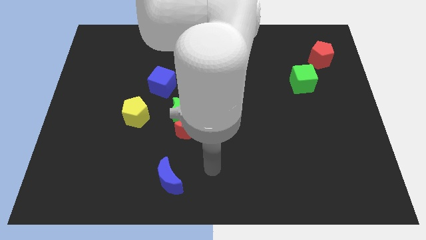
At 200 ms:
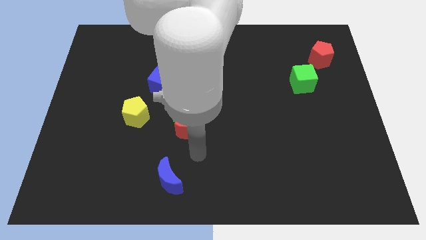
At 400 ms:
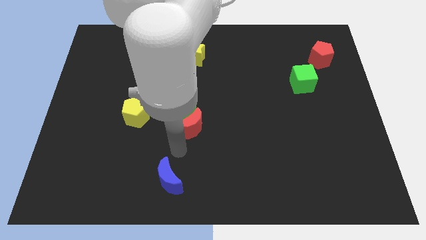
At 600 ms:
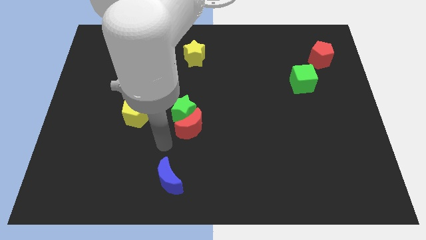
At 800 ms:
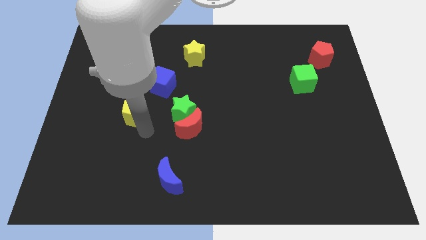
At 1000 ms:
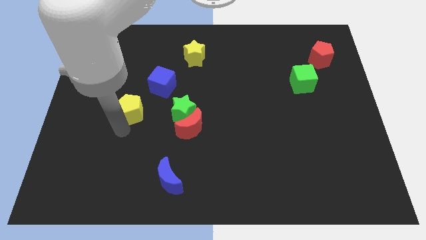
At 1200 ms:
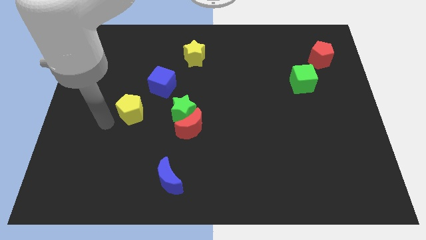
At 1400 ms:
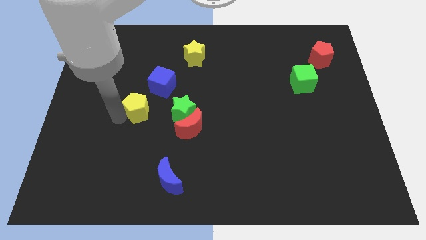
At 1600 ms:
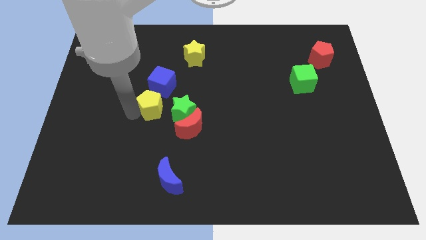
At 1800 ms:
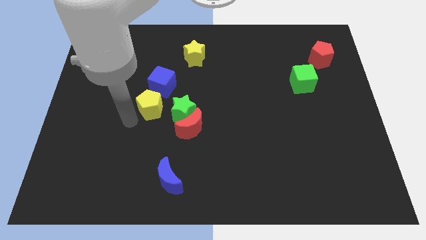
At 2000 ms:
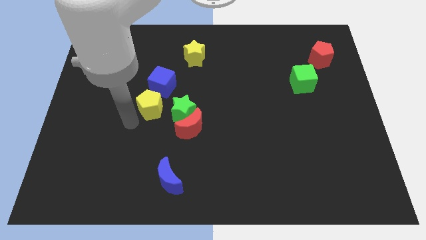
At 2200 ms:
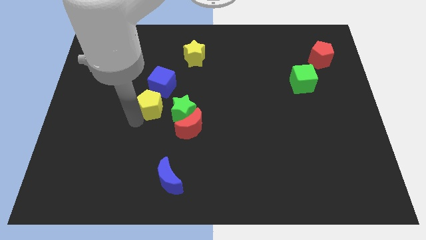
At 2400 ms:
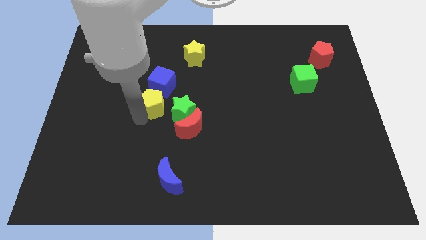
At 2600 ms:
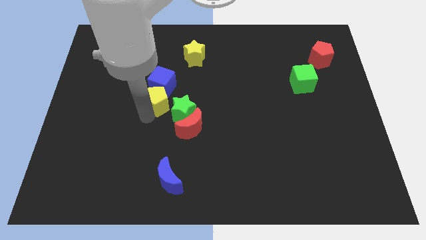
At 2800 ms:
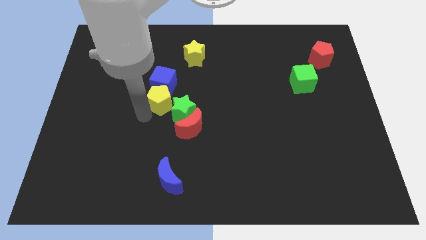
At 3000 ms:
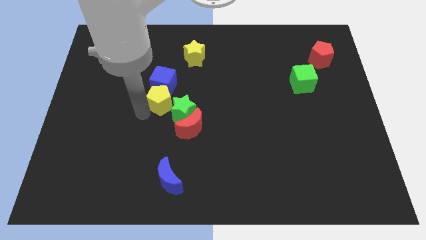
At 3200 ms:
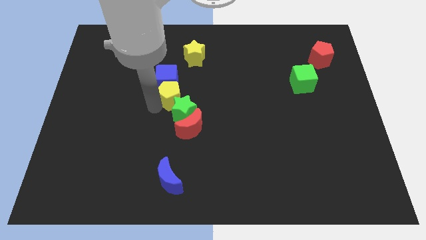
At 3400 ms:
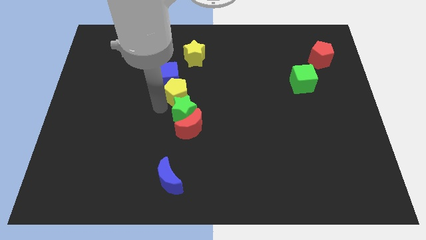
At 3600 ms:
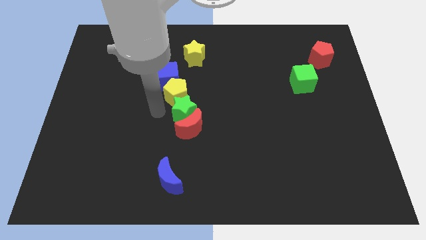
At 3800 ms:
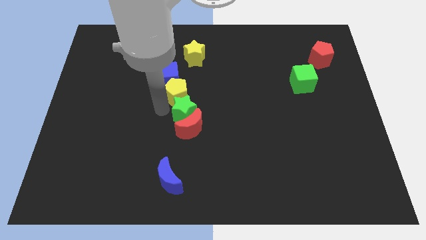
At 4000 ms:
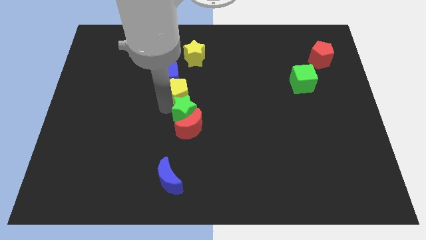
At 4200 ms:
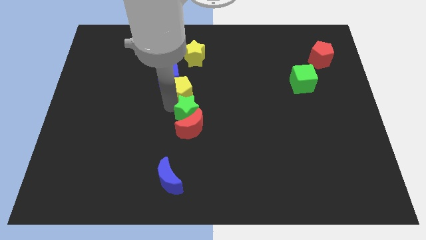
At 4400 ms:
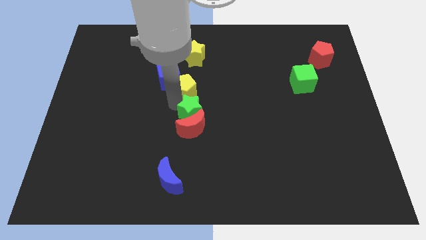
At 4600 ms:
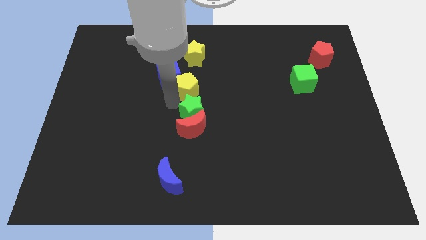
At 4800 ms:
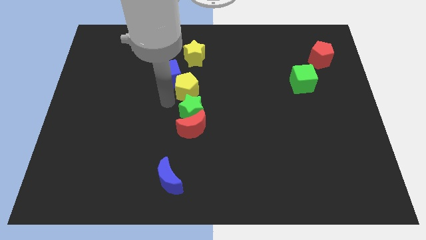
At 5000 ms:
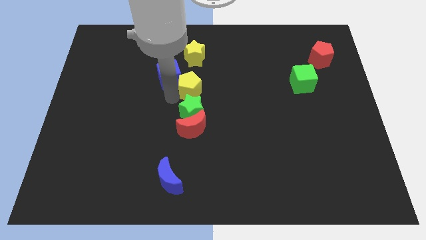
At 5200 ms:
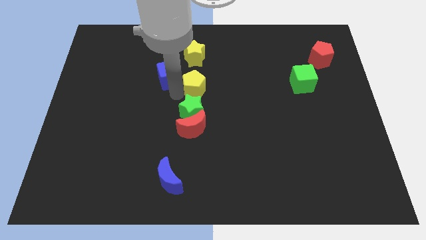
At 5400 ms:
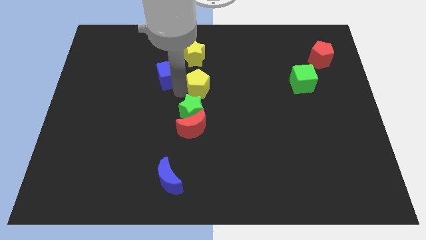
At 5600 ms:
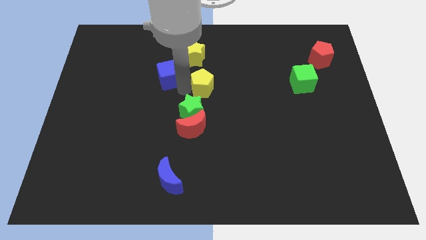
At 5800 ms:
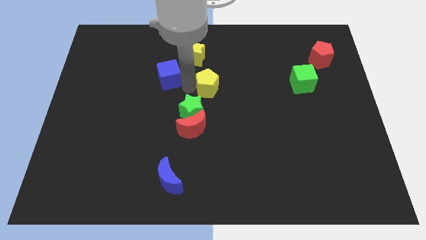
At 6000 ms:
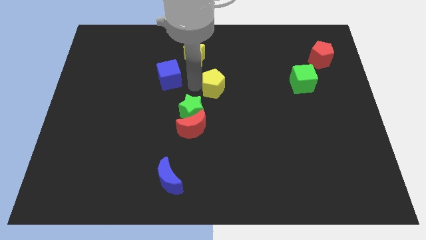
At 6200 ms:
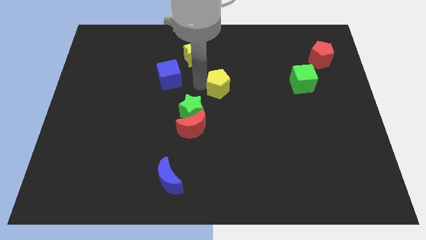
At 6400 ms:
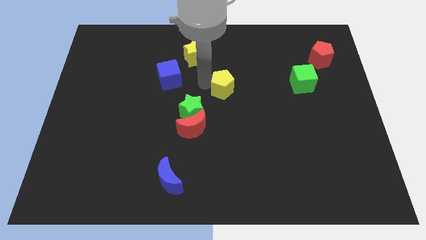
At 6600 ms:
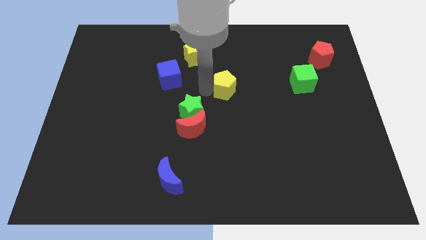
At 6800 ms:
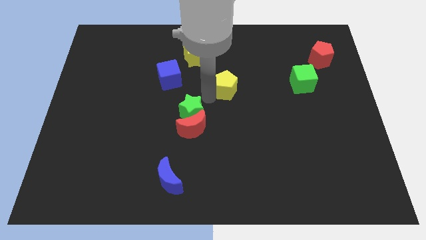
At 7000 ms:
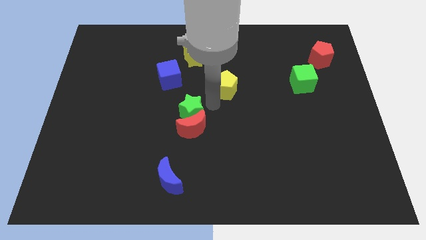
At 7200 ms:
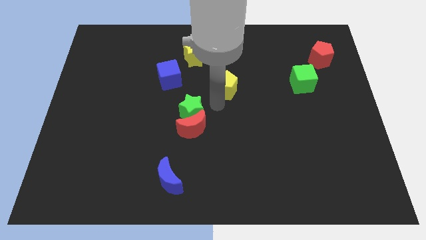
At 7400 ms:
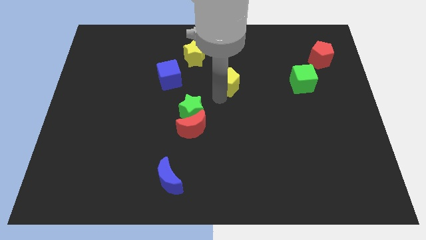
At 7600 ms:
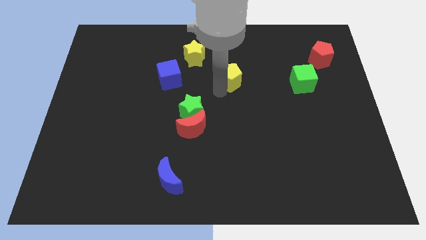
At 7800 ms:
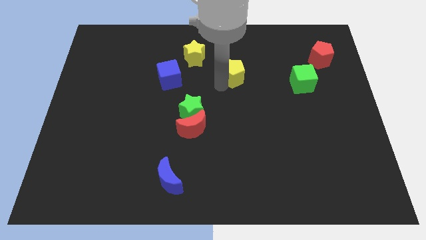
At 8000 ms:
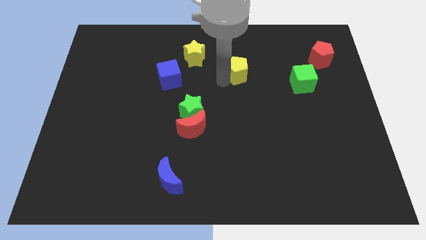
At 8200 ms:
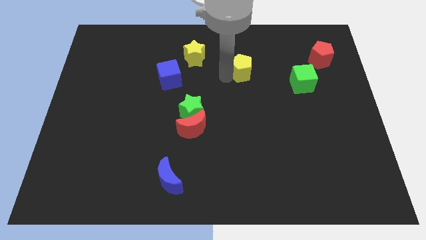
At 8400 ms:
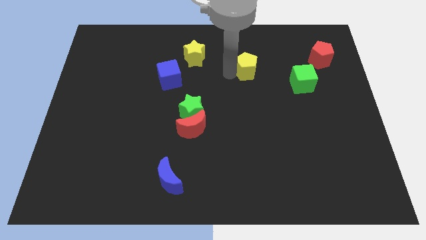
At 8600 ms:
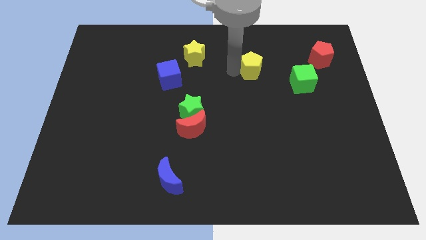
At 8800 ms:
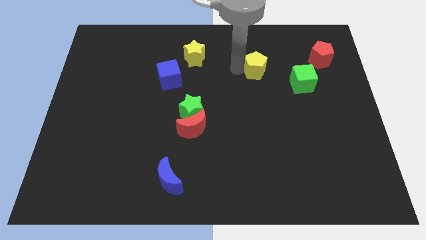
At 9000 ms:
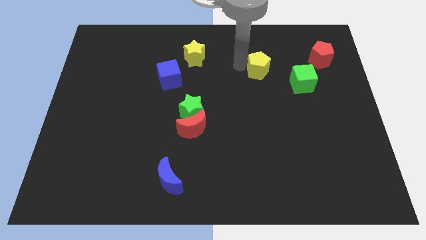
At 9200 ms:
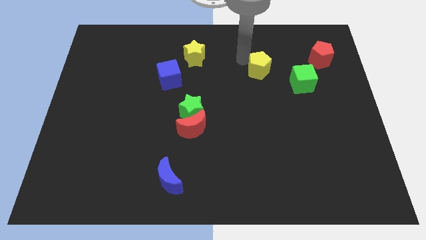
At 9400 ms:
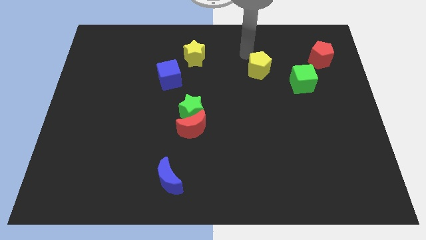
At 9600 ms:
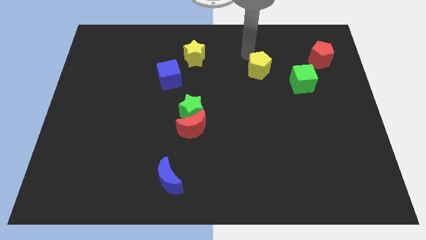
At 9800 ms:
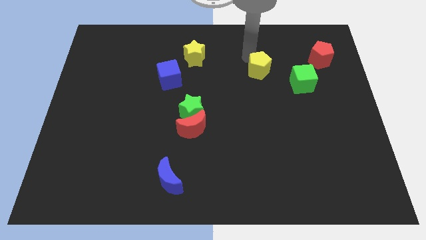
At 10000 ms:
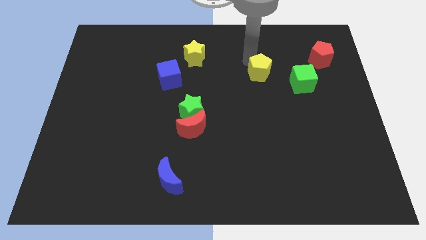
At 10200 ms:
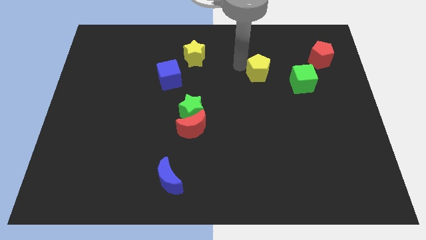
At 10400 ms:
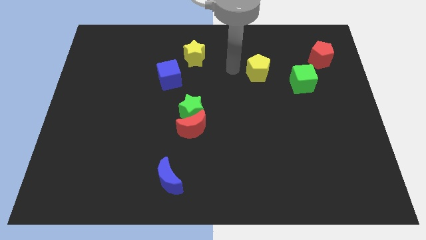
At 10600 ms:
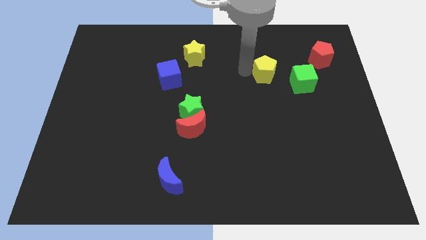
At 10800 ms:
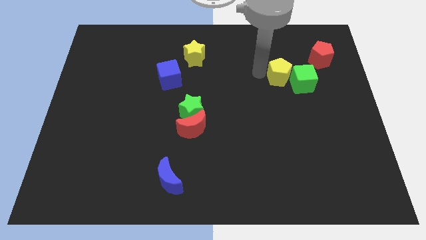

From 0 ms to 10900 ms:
push the yellow pentagon towards the green cube

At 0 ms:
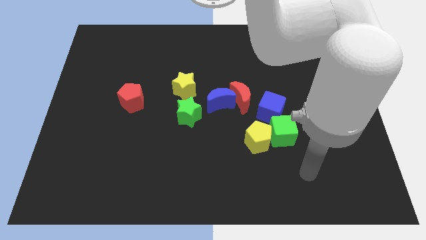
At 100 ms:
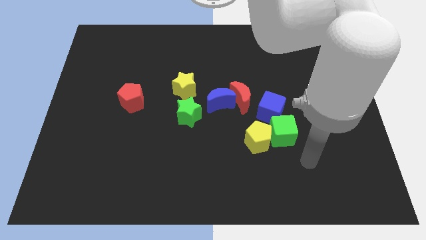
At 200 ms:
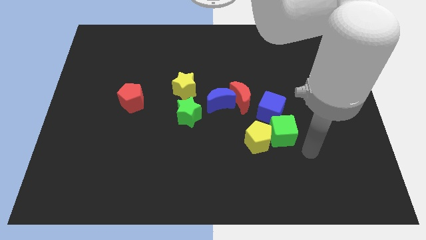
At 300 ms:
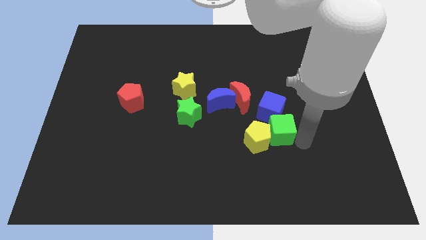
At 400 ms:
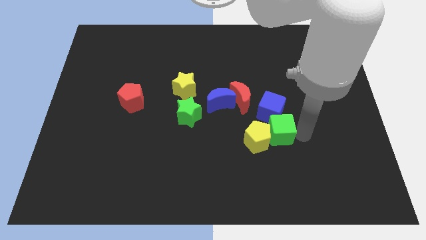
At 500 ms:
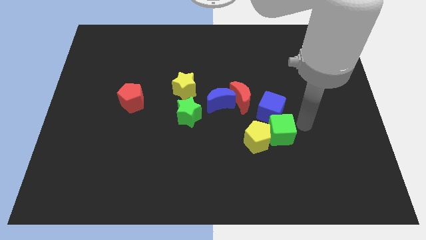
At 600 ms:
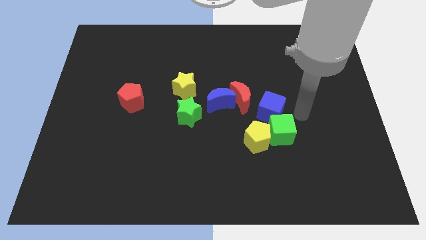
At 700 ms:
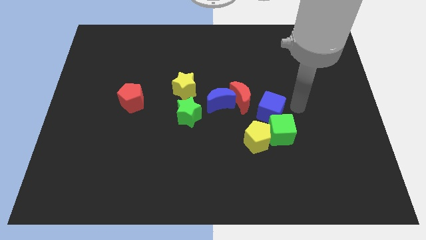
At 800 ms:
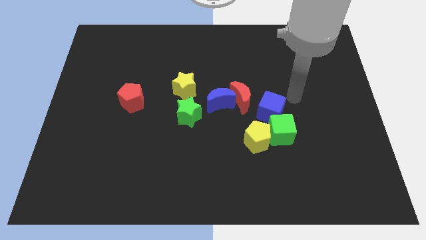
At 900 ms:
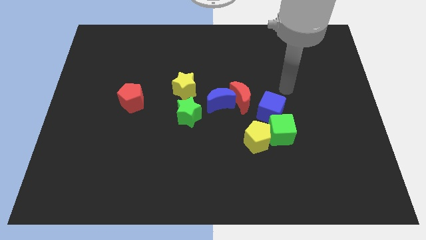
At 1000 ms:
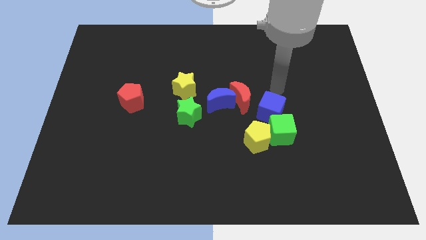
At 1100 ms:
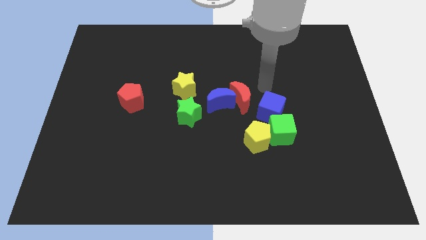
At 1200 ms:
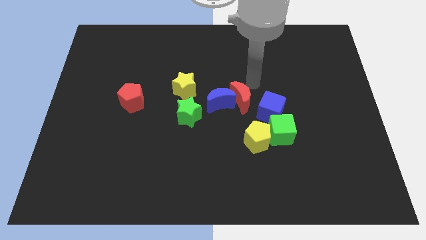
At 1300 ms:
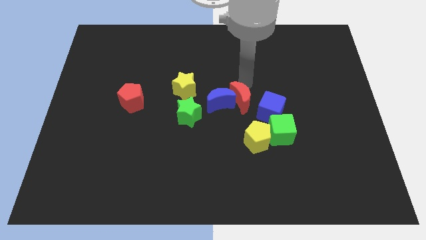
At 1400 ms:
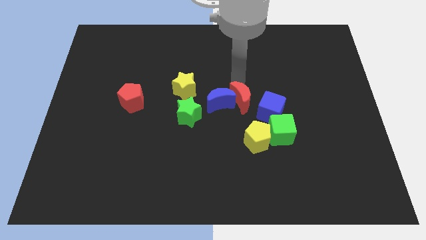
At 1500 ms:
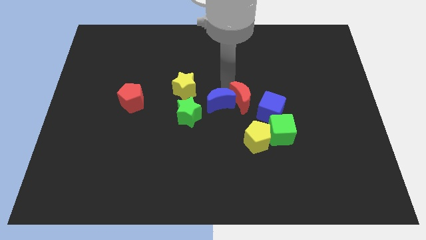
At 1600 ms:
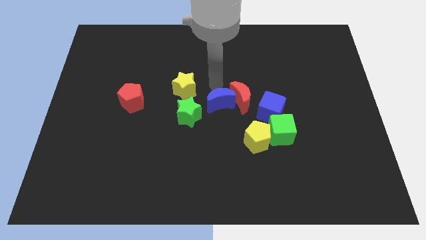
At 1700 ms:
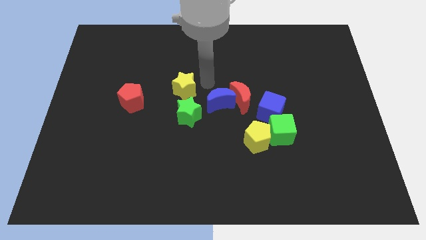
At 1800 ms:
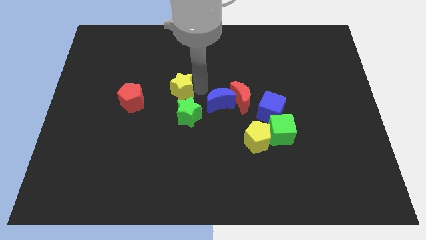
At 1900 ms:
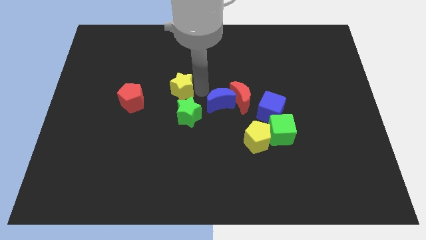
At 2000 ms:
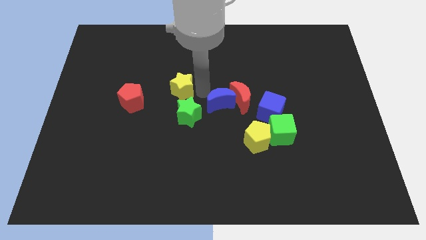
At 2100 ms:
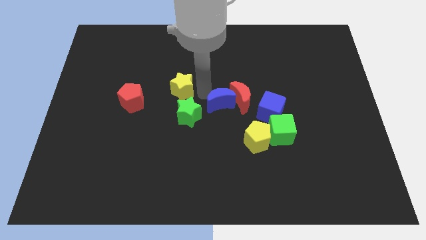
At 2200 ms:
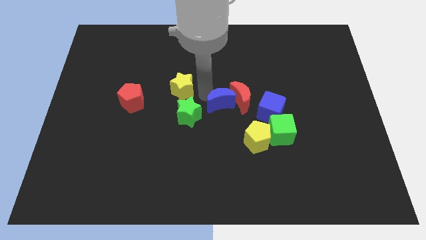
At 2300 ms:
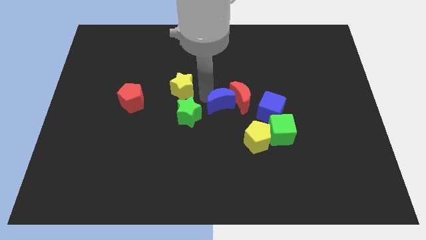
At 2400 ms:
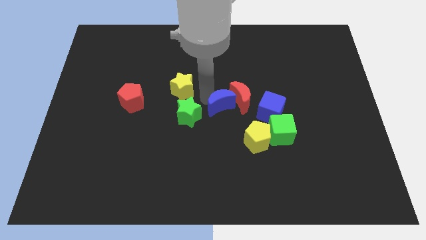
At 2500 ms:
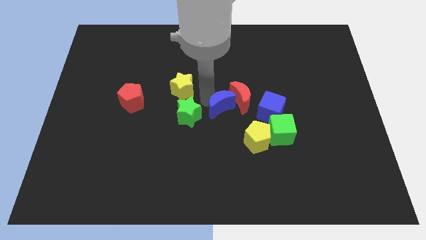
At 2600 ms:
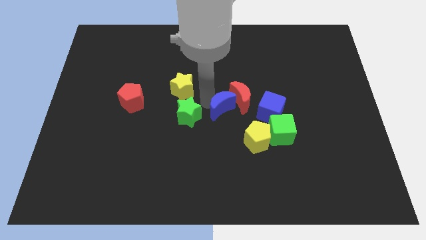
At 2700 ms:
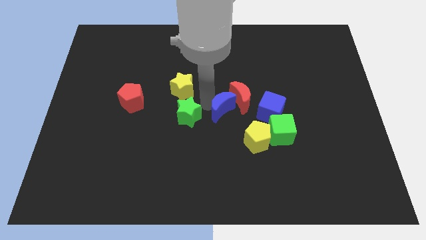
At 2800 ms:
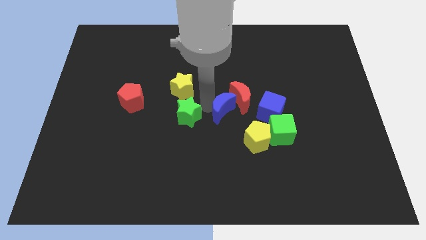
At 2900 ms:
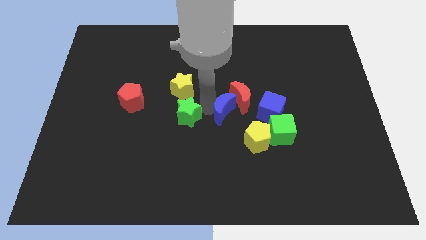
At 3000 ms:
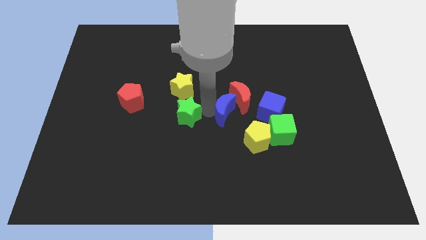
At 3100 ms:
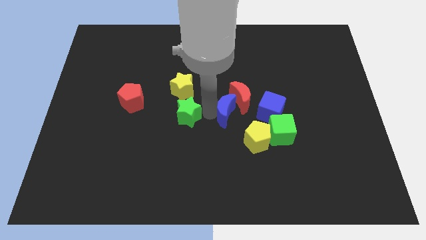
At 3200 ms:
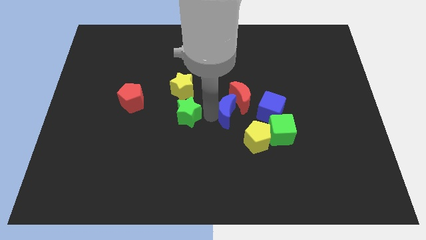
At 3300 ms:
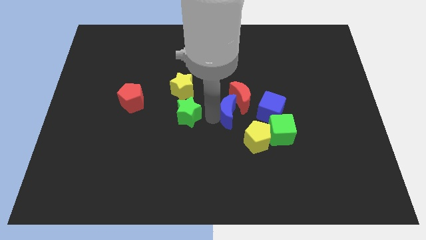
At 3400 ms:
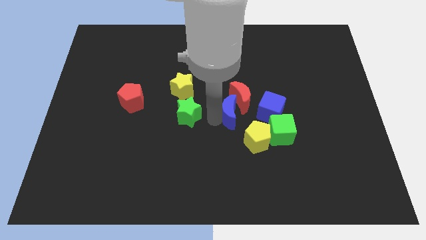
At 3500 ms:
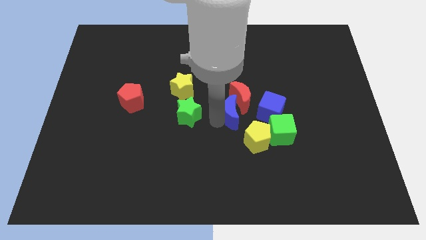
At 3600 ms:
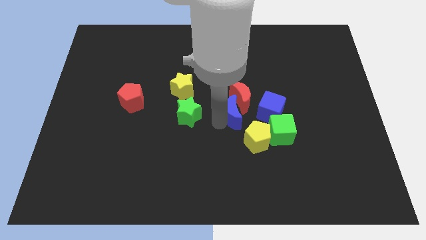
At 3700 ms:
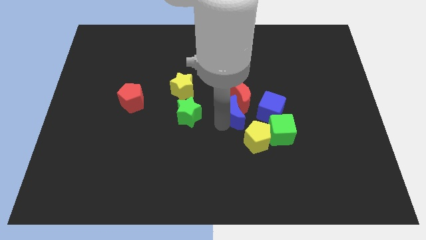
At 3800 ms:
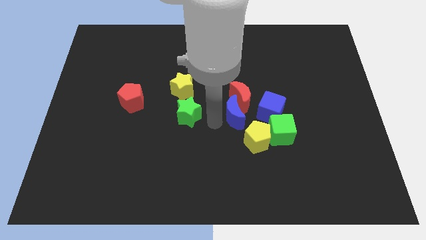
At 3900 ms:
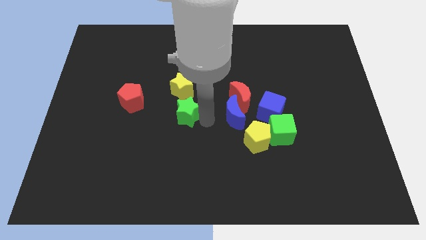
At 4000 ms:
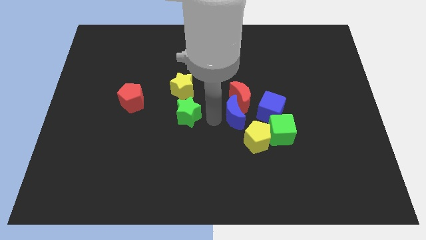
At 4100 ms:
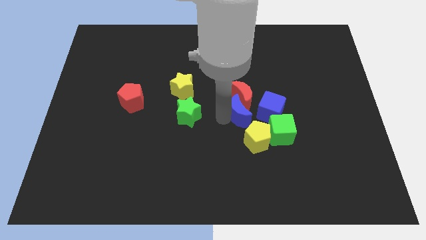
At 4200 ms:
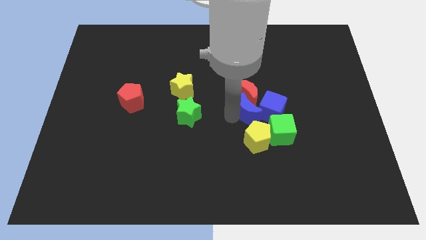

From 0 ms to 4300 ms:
push the blue moon towards the blue cube
